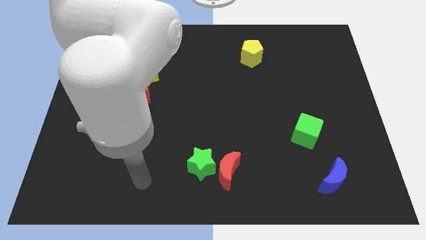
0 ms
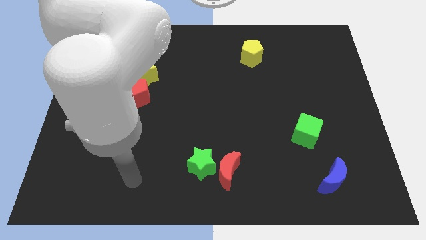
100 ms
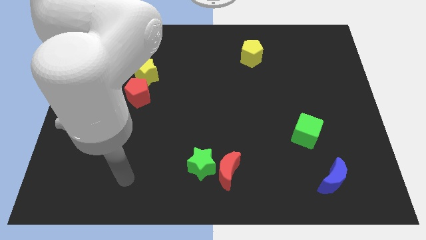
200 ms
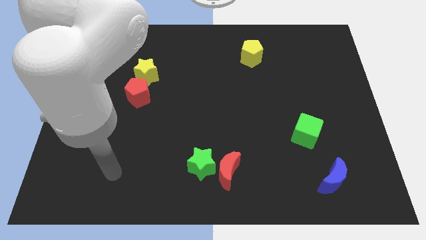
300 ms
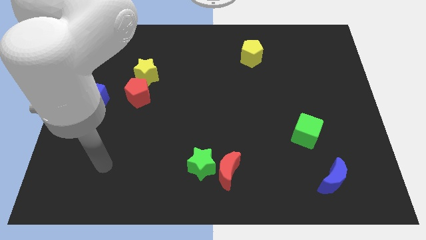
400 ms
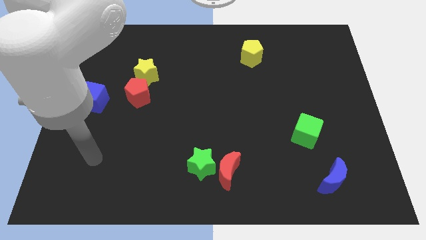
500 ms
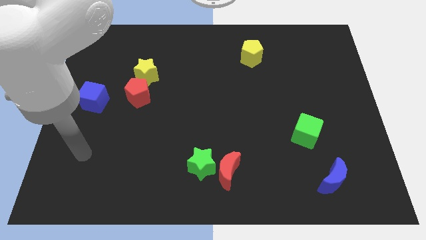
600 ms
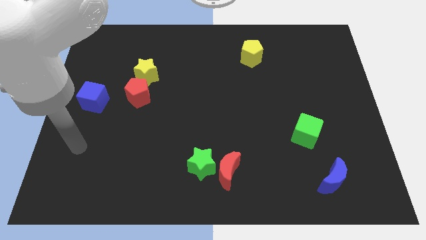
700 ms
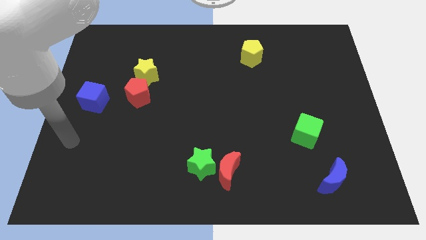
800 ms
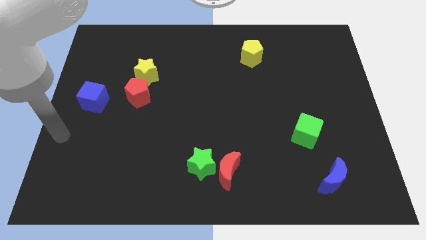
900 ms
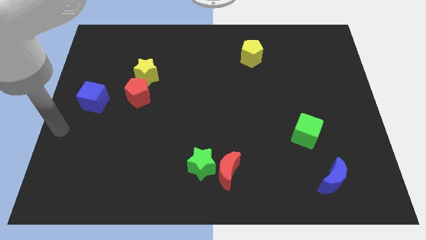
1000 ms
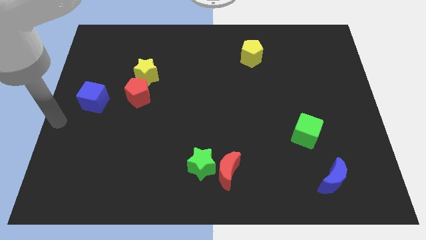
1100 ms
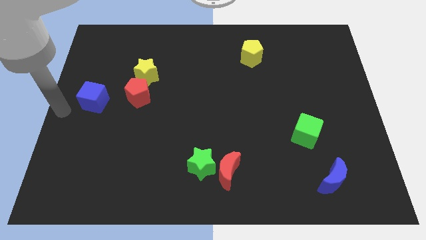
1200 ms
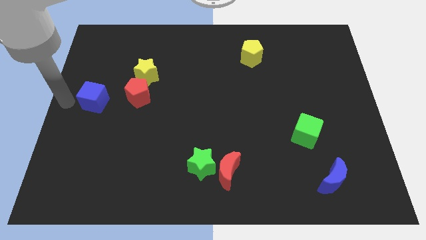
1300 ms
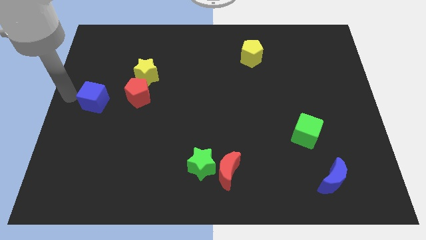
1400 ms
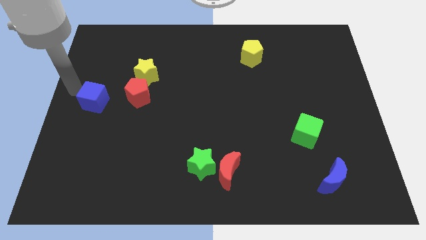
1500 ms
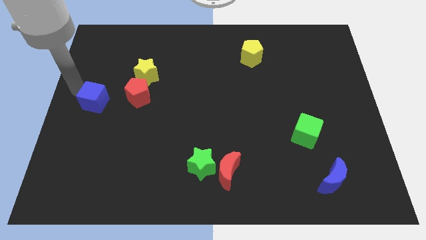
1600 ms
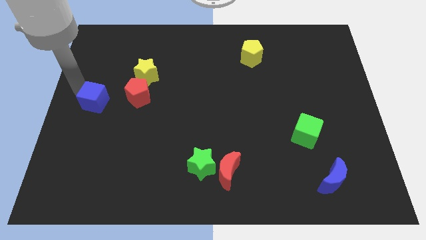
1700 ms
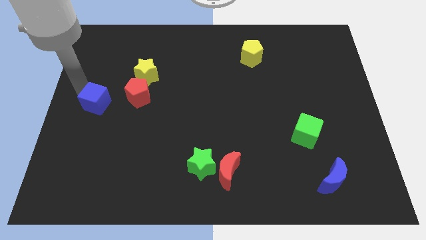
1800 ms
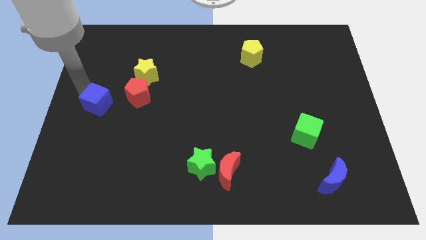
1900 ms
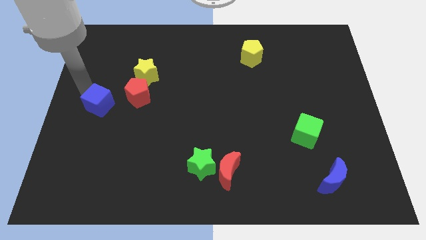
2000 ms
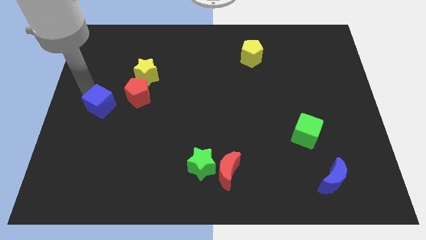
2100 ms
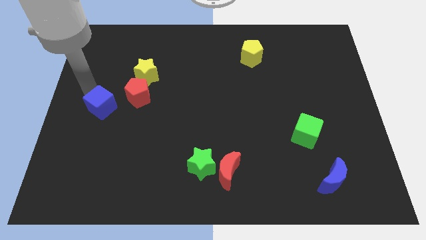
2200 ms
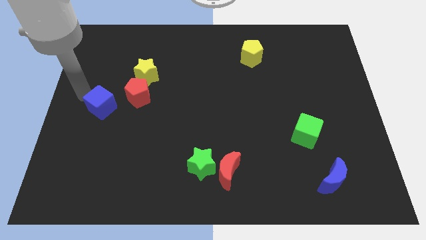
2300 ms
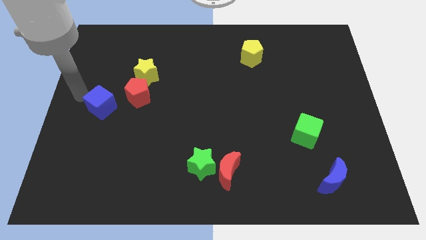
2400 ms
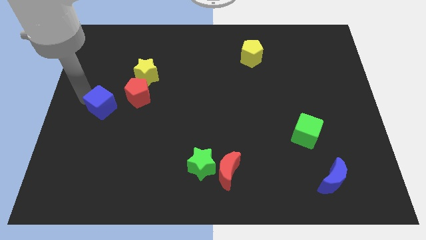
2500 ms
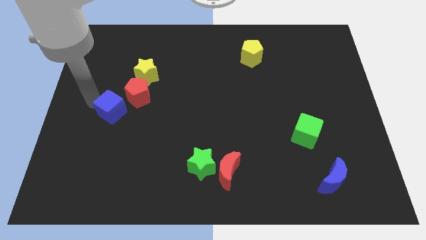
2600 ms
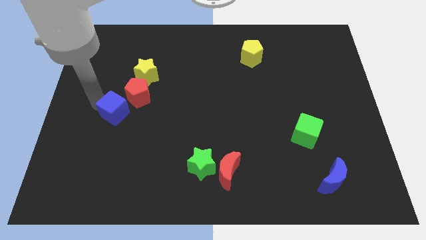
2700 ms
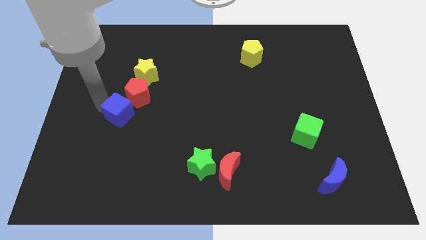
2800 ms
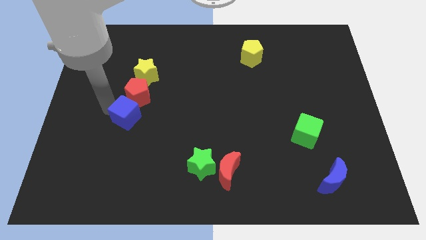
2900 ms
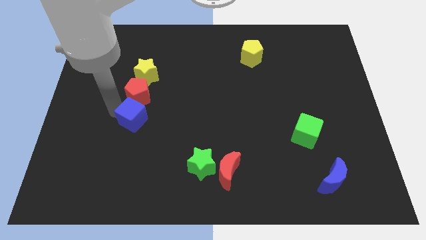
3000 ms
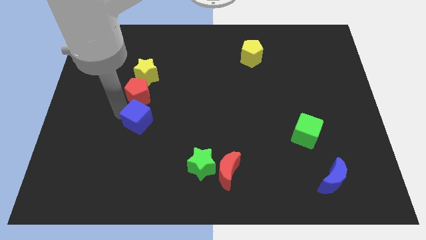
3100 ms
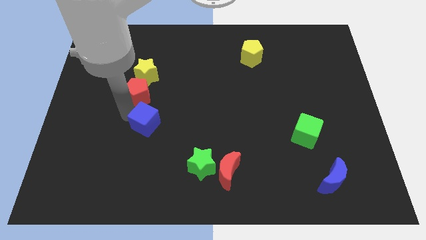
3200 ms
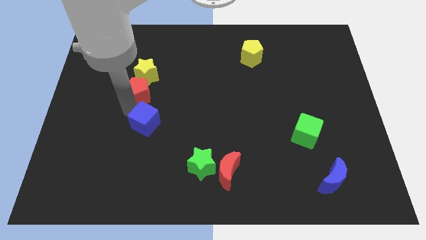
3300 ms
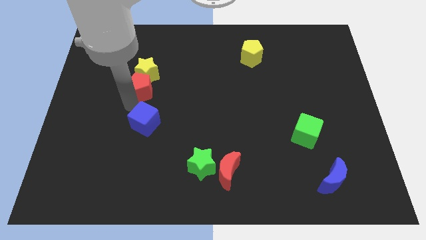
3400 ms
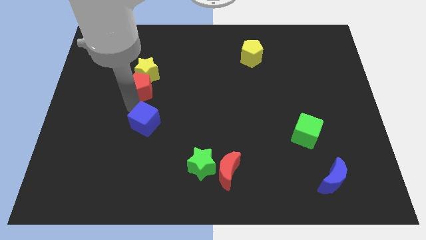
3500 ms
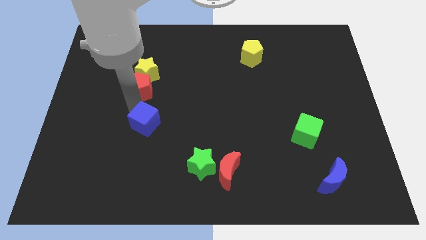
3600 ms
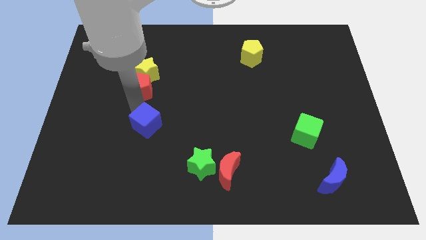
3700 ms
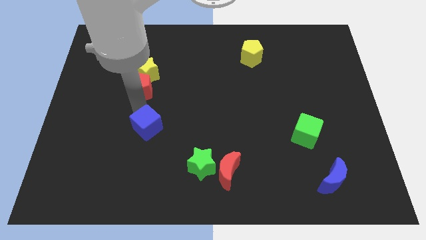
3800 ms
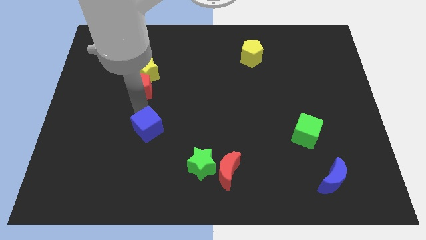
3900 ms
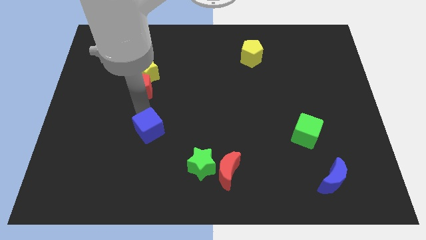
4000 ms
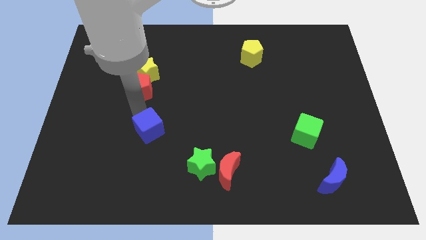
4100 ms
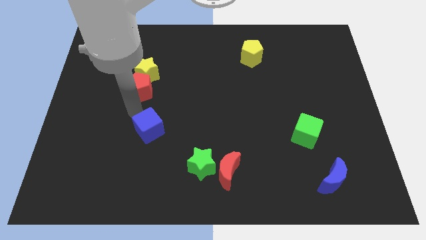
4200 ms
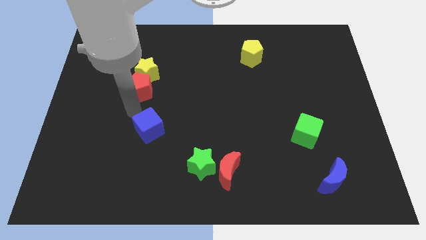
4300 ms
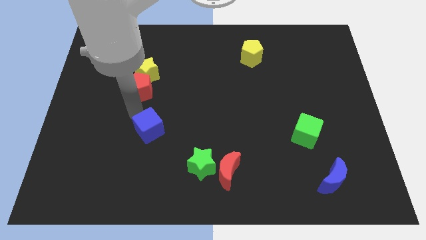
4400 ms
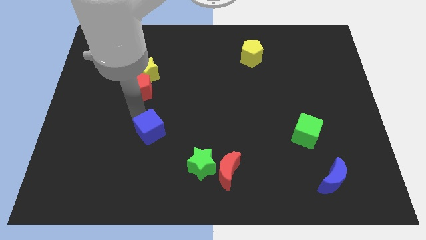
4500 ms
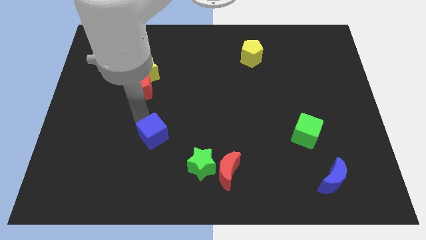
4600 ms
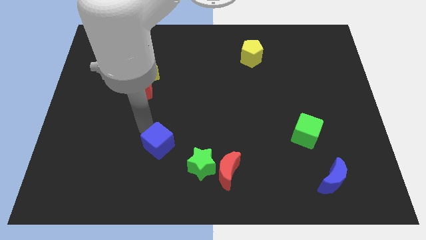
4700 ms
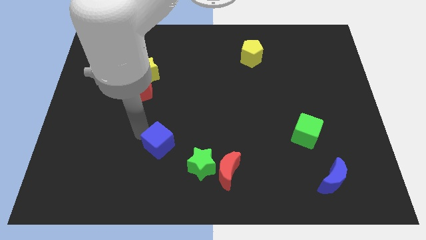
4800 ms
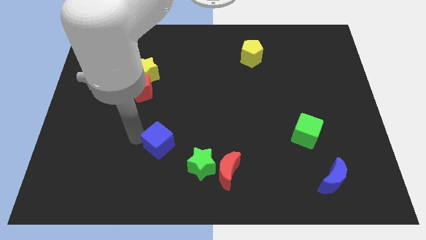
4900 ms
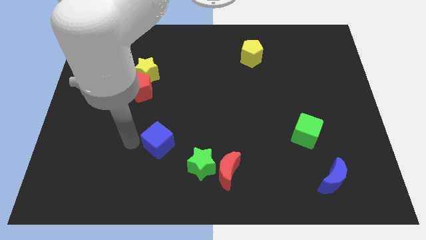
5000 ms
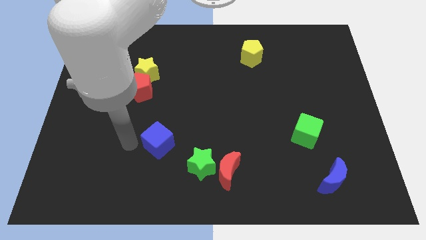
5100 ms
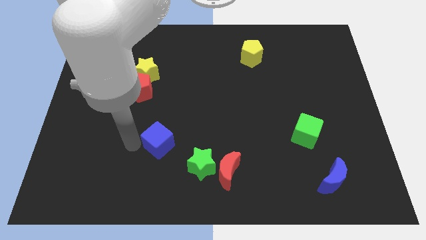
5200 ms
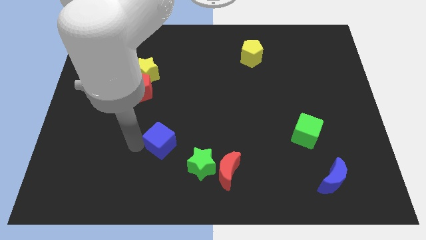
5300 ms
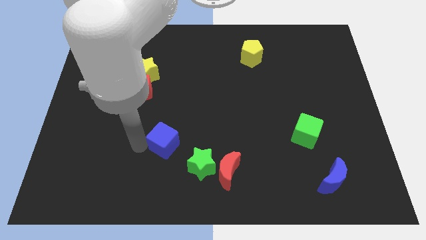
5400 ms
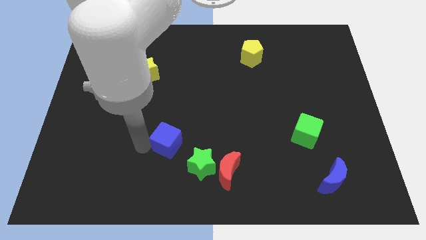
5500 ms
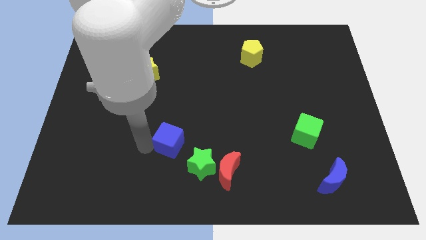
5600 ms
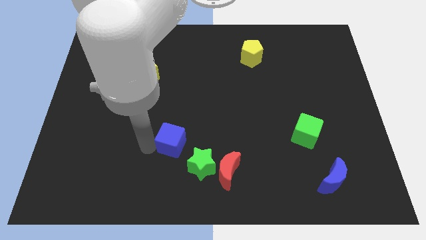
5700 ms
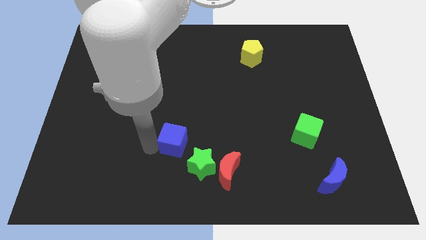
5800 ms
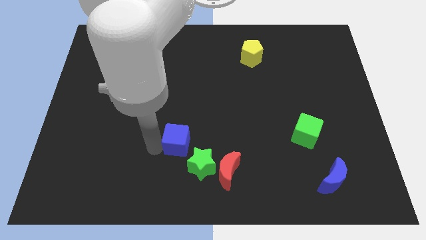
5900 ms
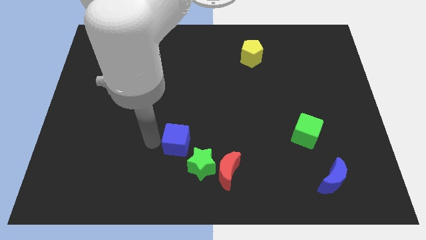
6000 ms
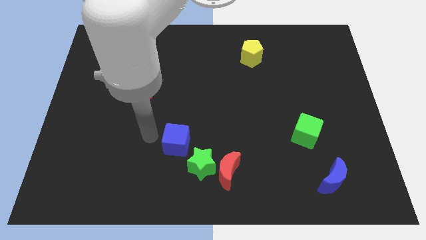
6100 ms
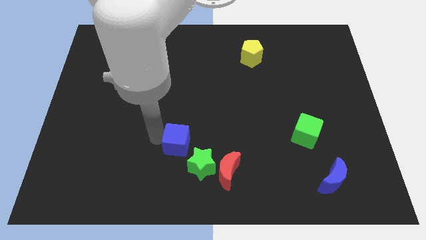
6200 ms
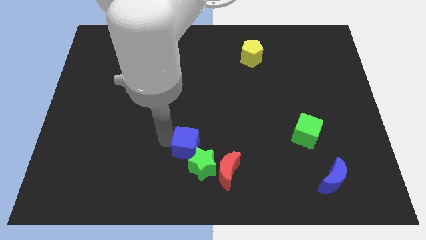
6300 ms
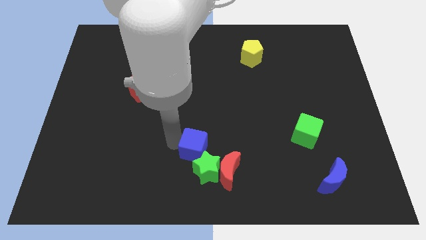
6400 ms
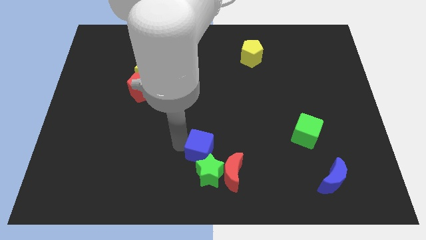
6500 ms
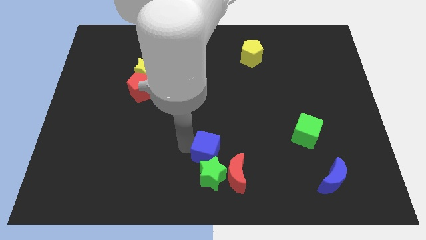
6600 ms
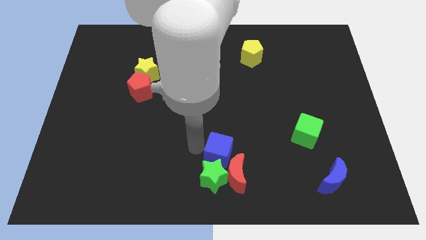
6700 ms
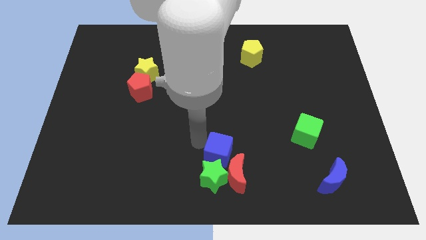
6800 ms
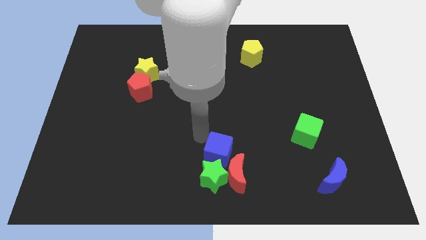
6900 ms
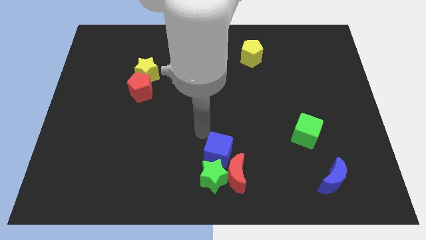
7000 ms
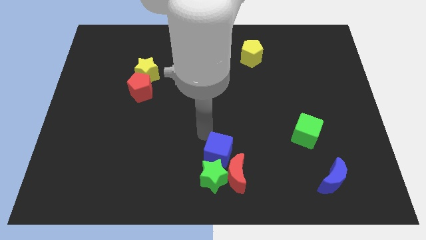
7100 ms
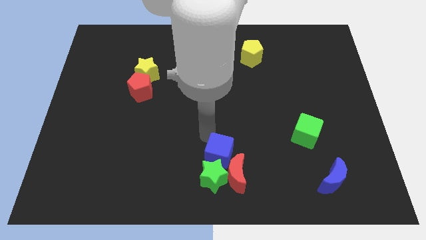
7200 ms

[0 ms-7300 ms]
put the blue cube close to the red moon
